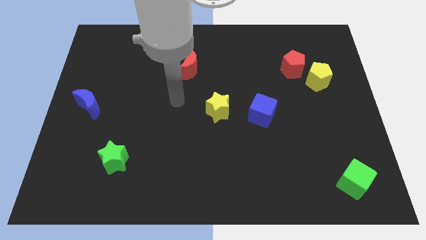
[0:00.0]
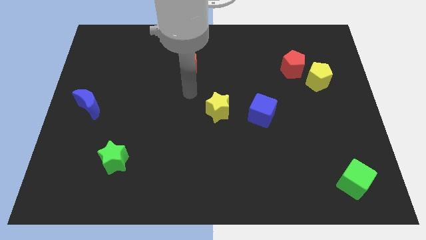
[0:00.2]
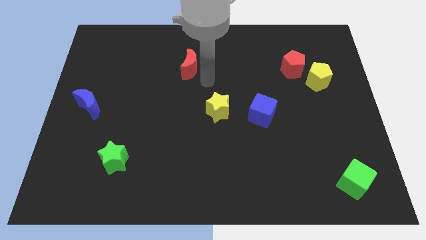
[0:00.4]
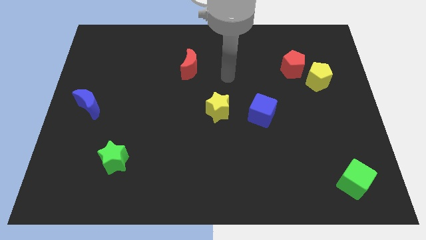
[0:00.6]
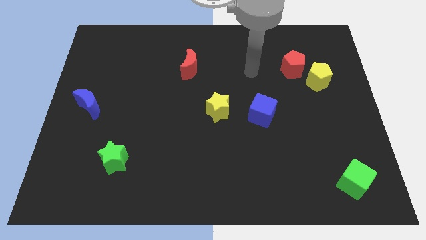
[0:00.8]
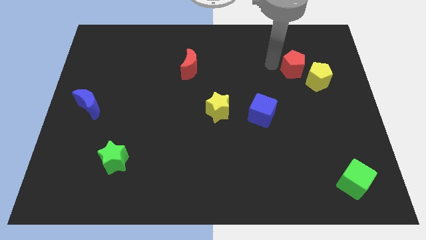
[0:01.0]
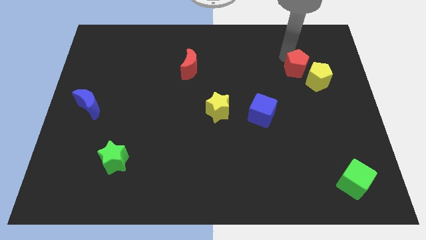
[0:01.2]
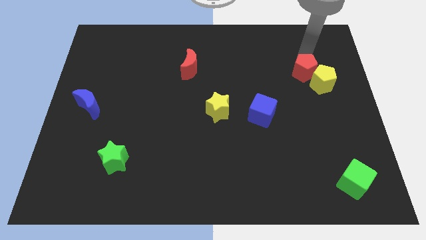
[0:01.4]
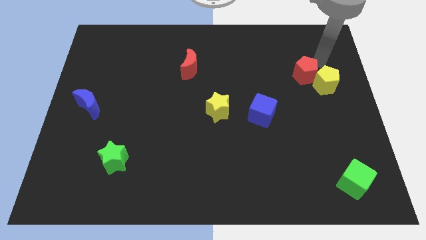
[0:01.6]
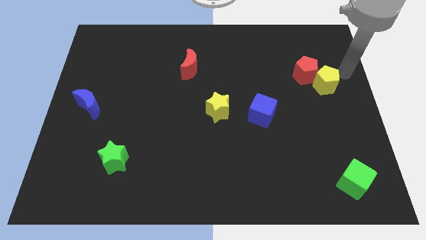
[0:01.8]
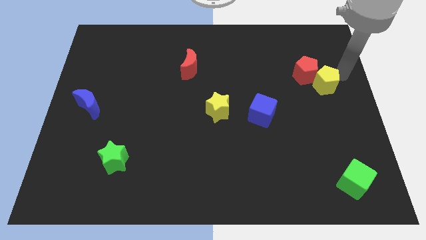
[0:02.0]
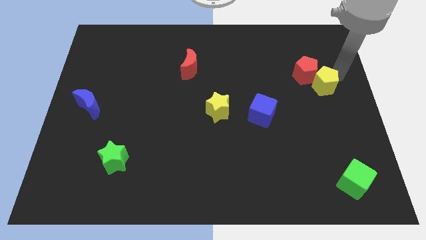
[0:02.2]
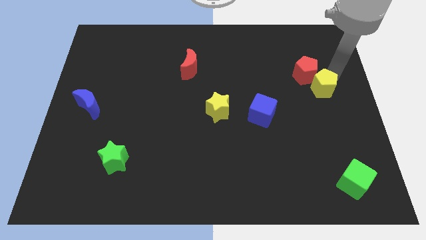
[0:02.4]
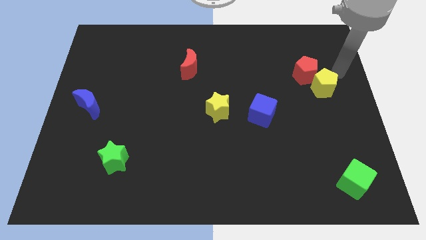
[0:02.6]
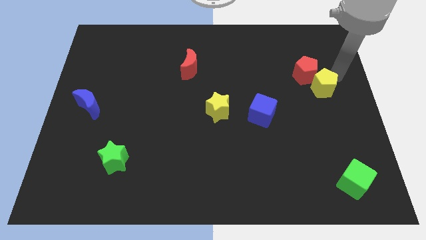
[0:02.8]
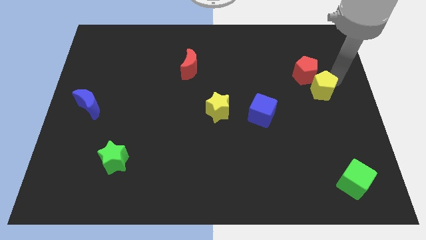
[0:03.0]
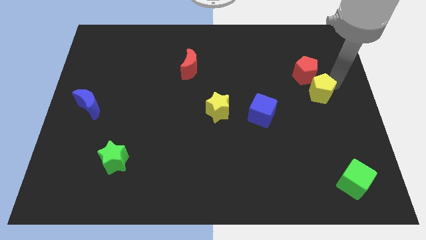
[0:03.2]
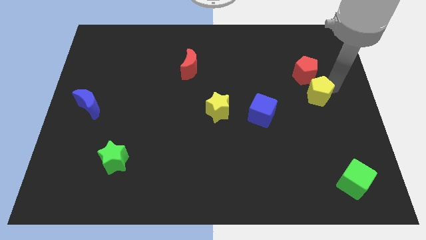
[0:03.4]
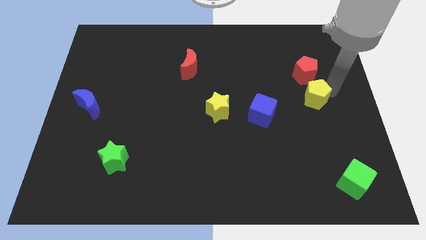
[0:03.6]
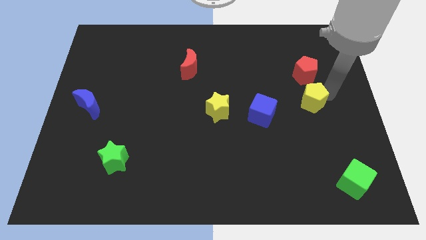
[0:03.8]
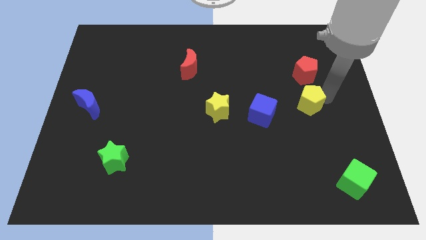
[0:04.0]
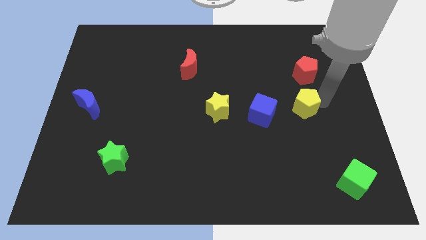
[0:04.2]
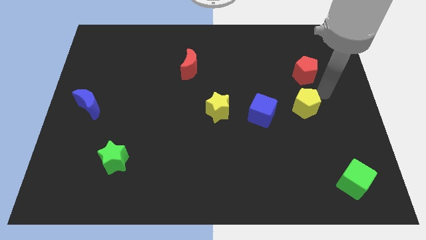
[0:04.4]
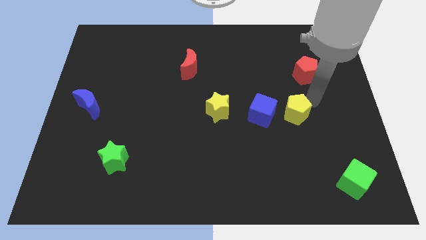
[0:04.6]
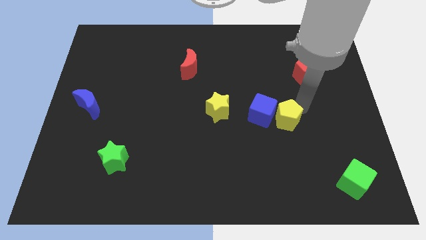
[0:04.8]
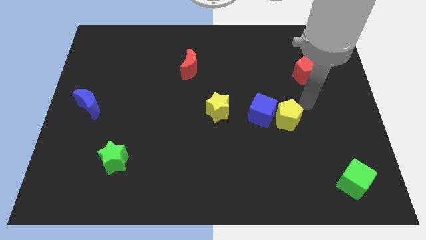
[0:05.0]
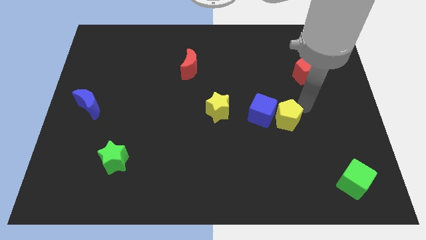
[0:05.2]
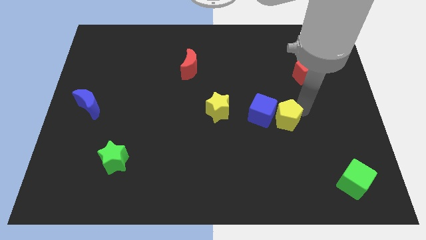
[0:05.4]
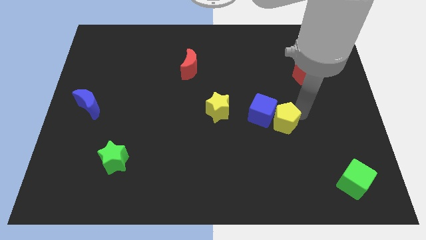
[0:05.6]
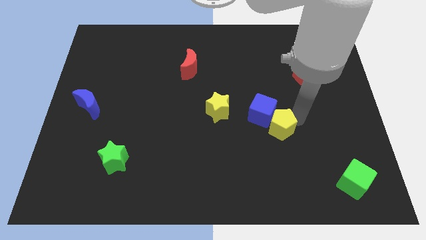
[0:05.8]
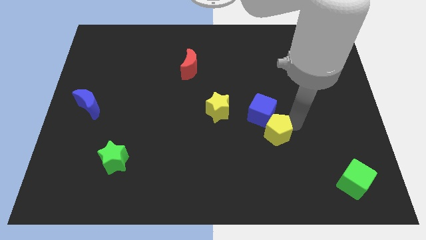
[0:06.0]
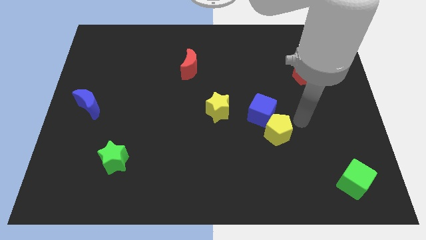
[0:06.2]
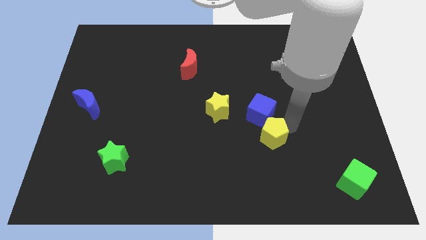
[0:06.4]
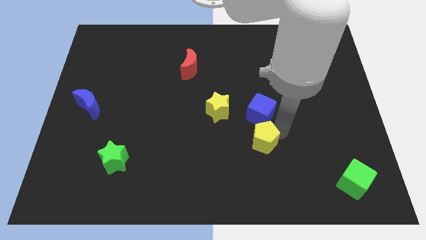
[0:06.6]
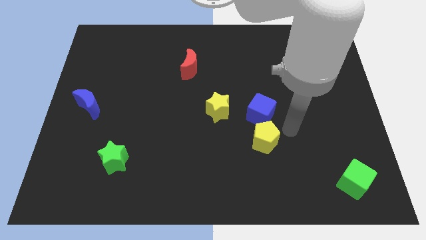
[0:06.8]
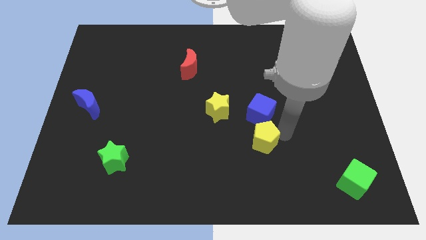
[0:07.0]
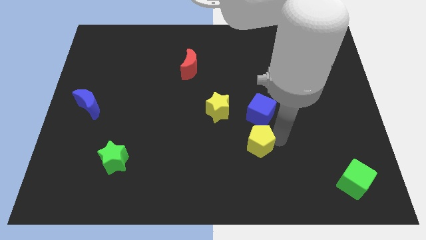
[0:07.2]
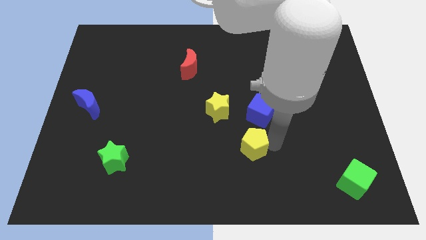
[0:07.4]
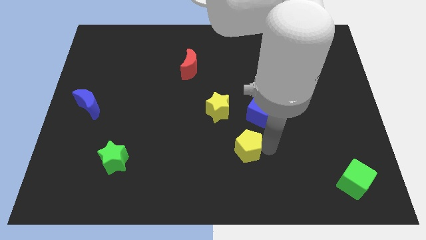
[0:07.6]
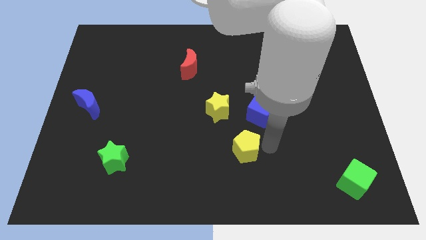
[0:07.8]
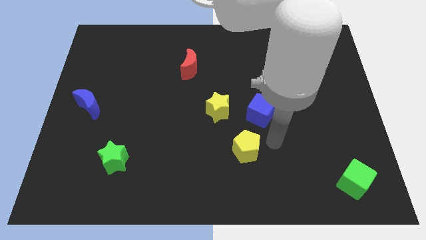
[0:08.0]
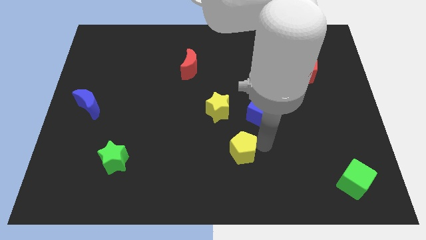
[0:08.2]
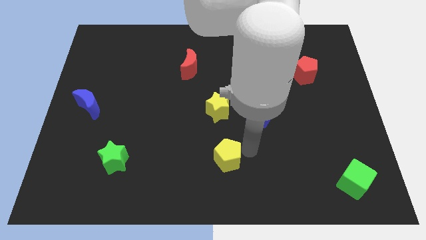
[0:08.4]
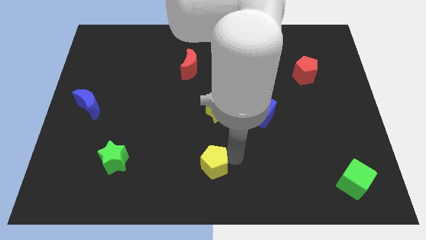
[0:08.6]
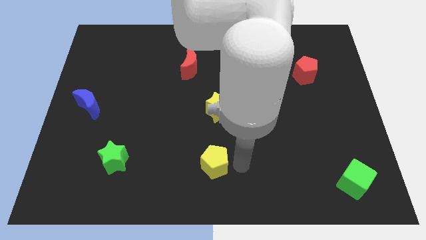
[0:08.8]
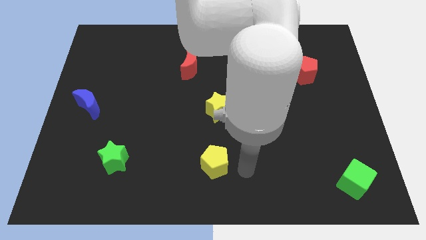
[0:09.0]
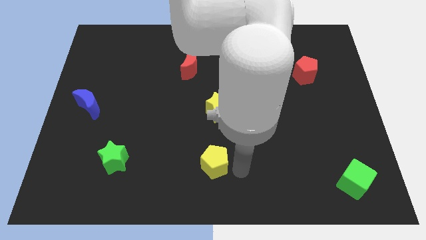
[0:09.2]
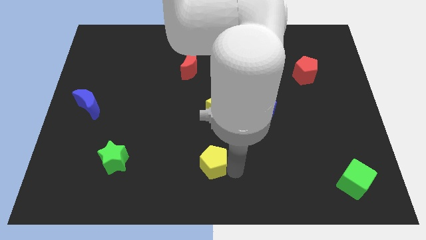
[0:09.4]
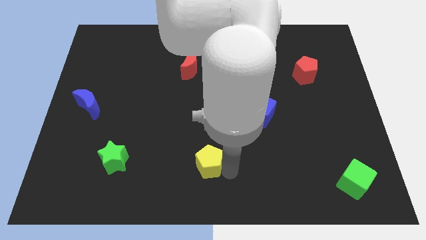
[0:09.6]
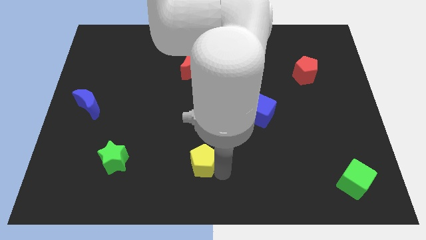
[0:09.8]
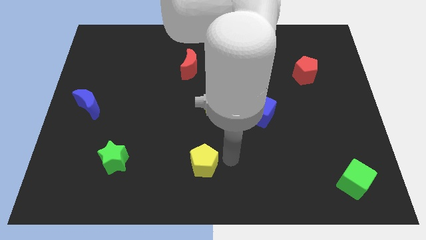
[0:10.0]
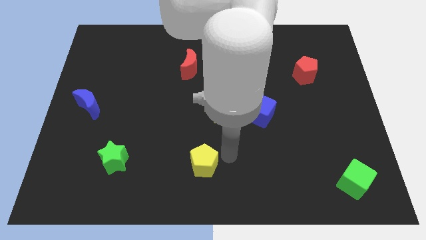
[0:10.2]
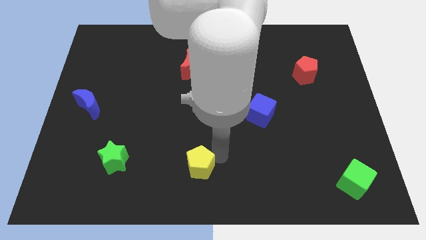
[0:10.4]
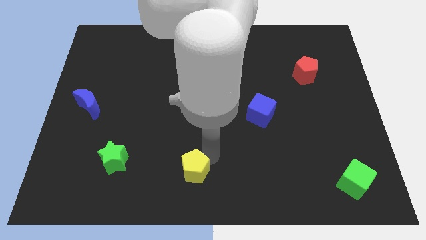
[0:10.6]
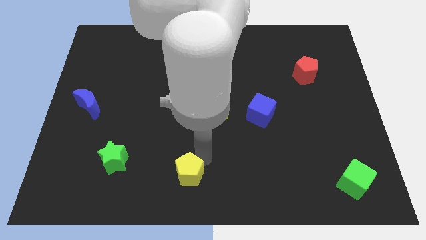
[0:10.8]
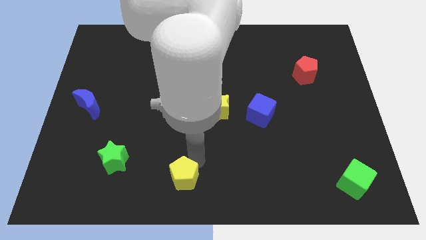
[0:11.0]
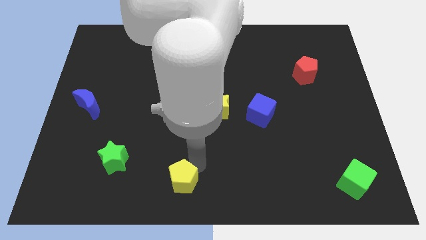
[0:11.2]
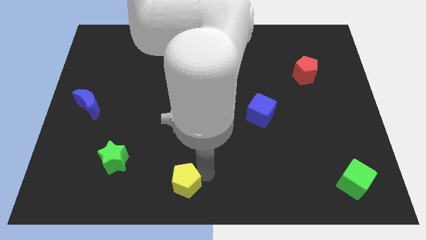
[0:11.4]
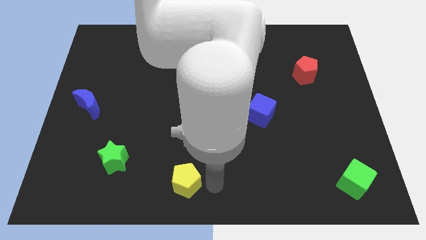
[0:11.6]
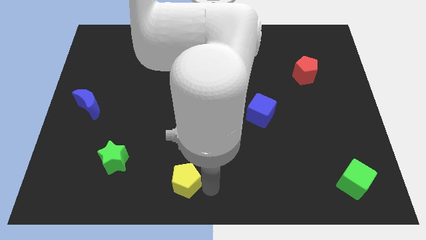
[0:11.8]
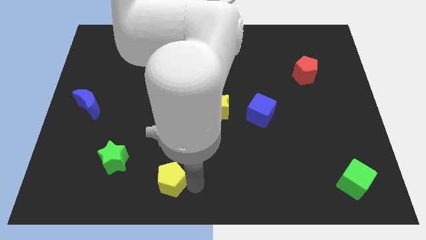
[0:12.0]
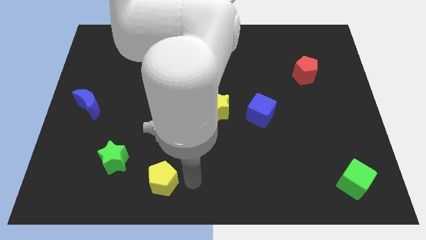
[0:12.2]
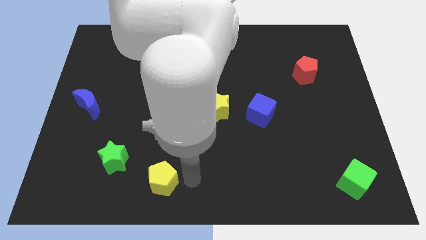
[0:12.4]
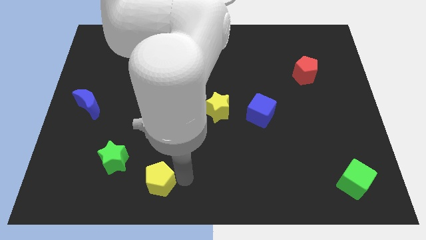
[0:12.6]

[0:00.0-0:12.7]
slide the yellow pentagon to the bottom right of the green star

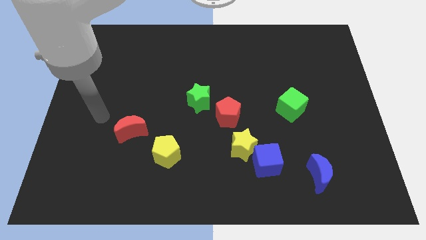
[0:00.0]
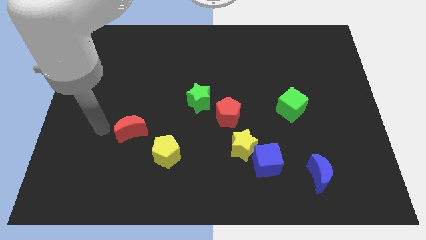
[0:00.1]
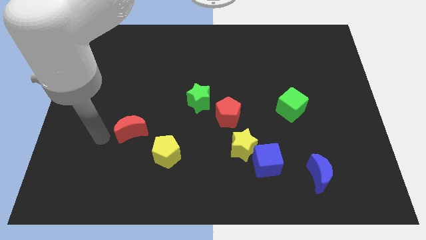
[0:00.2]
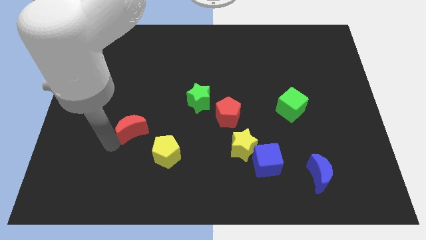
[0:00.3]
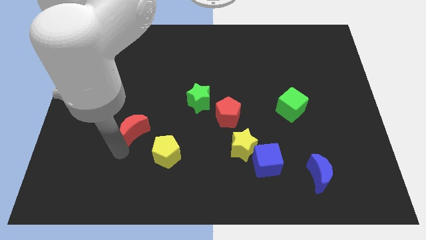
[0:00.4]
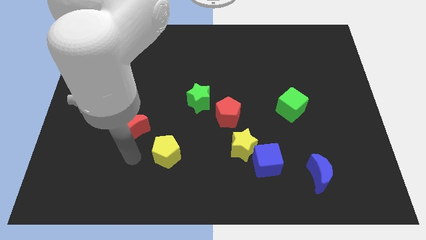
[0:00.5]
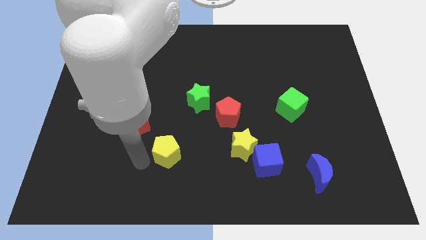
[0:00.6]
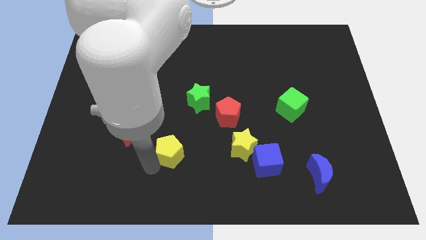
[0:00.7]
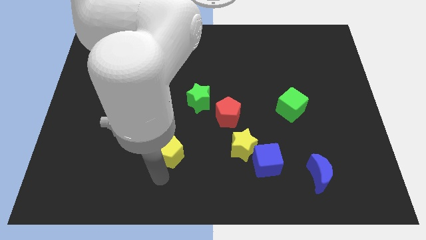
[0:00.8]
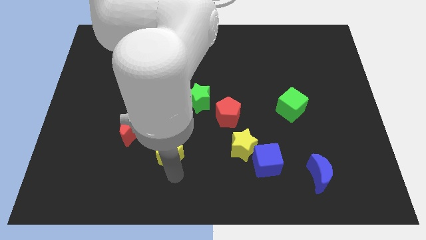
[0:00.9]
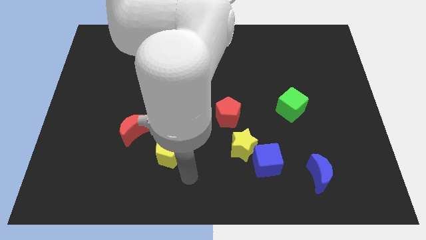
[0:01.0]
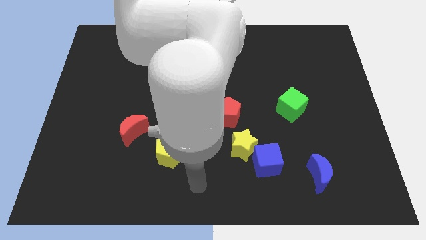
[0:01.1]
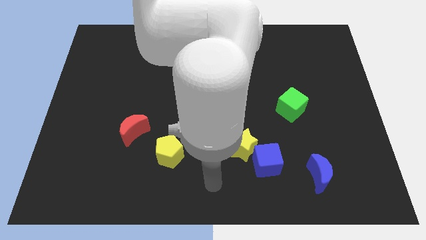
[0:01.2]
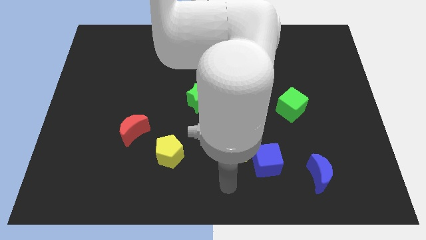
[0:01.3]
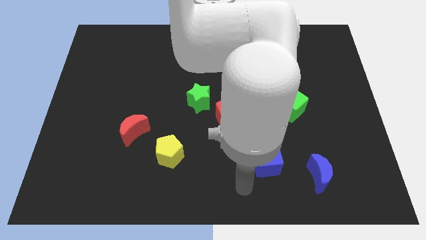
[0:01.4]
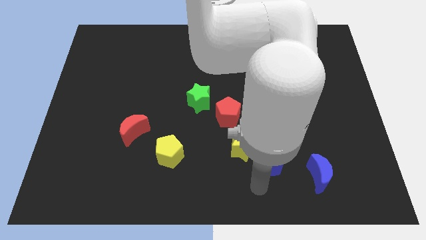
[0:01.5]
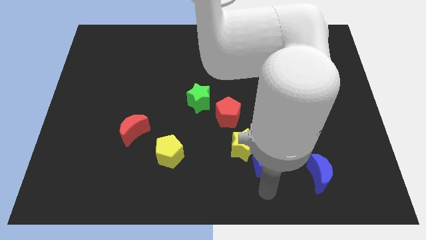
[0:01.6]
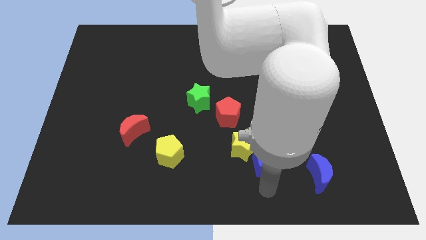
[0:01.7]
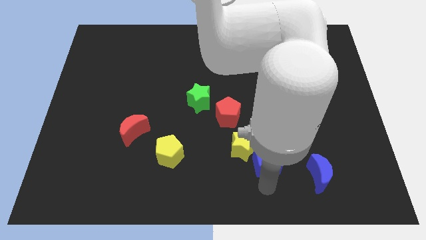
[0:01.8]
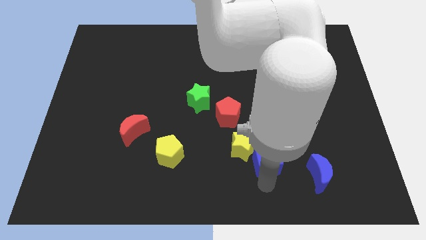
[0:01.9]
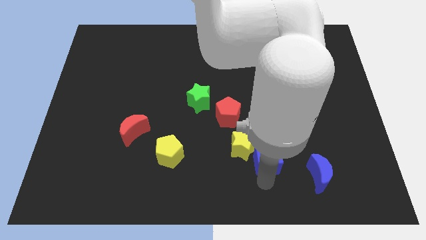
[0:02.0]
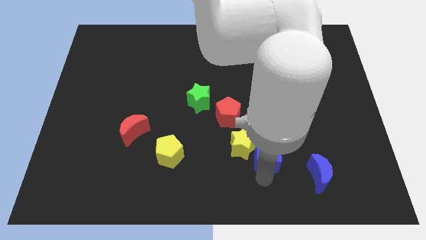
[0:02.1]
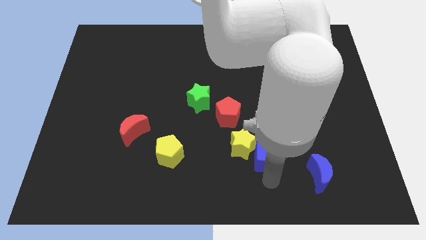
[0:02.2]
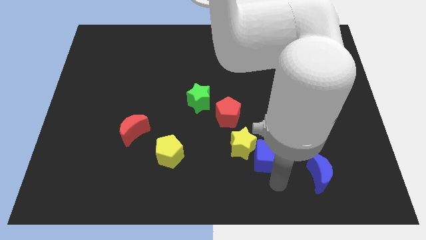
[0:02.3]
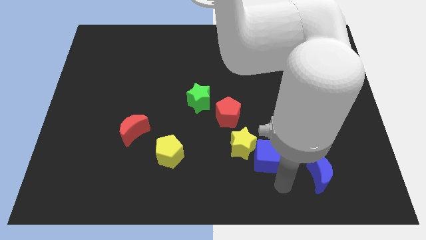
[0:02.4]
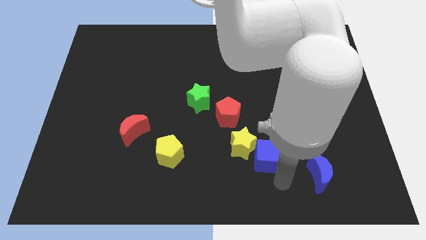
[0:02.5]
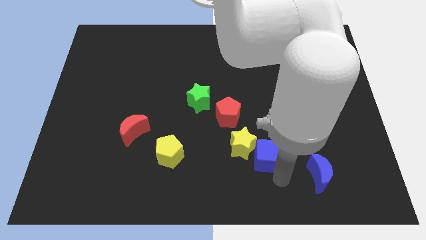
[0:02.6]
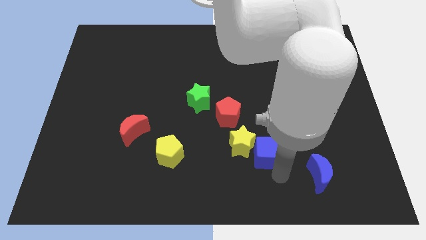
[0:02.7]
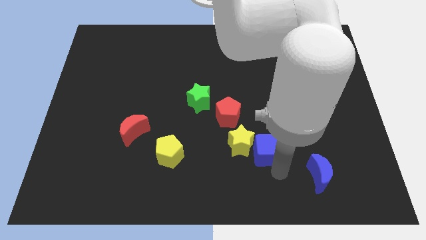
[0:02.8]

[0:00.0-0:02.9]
slide the blue cube diagonally down and to the right of the red pentagon
